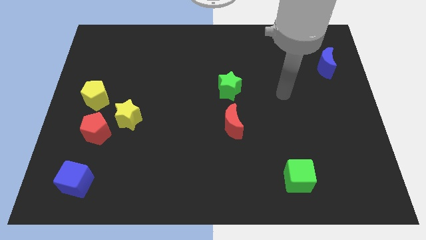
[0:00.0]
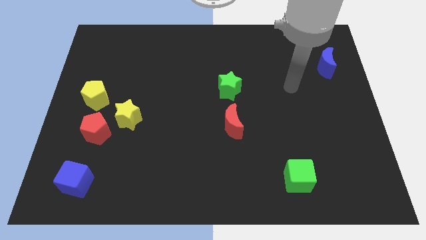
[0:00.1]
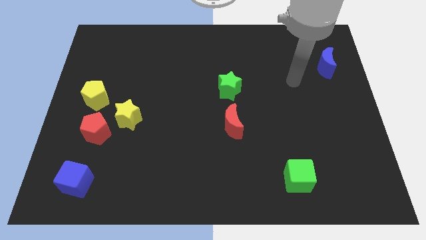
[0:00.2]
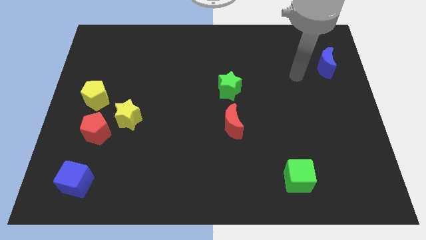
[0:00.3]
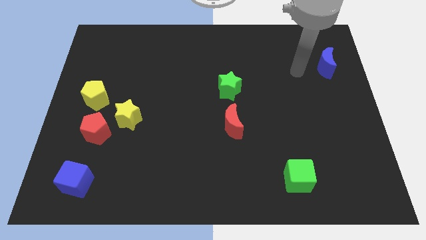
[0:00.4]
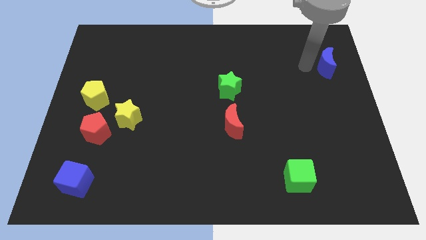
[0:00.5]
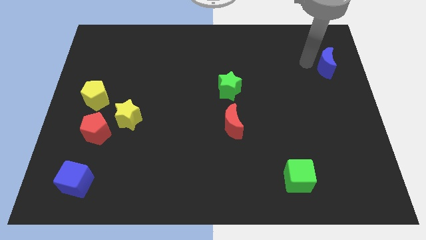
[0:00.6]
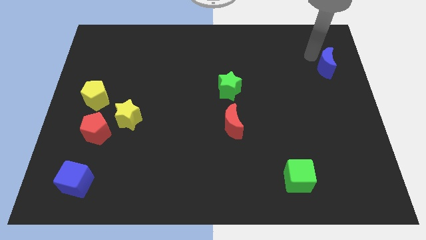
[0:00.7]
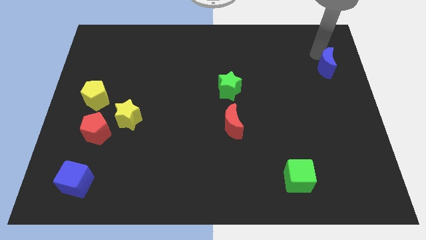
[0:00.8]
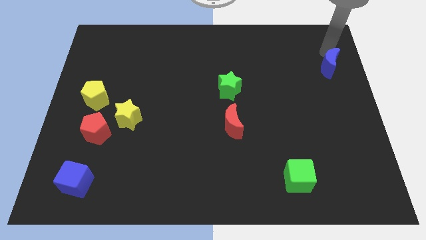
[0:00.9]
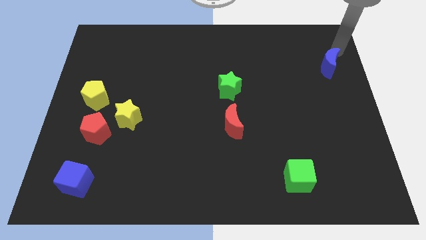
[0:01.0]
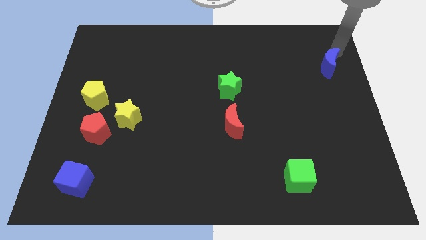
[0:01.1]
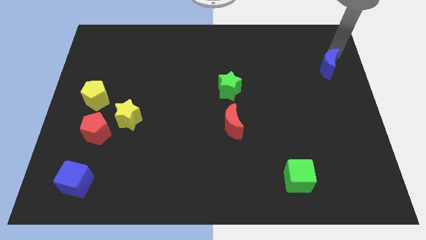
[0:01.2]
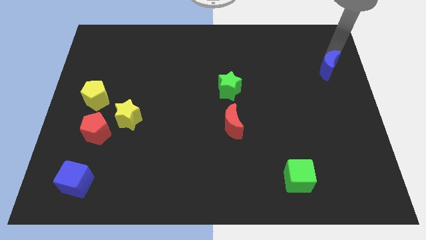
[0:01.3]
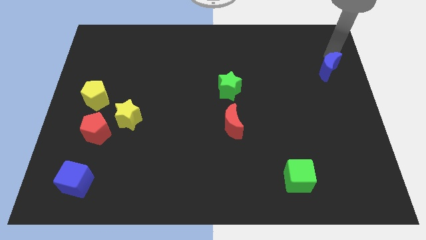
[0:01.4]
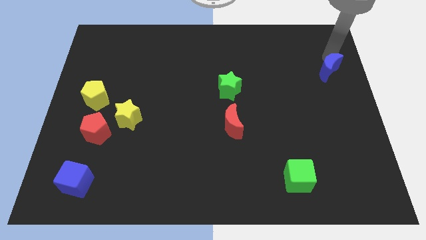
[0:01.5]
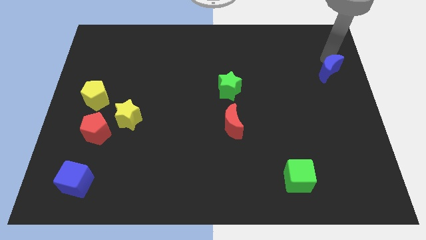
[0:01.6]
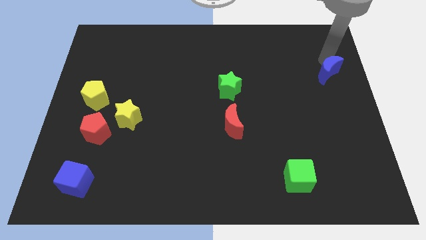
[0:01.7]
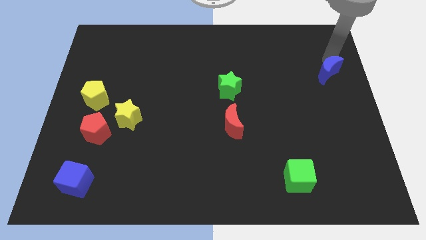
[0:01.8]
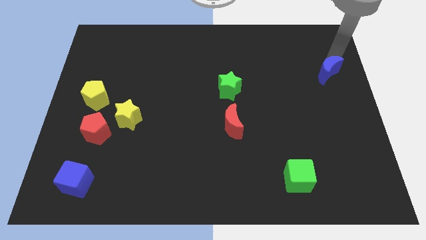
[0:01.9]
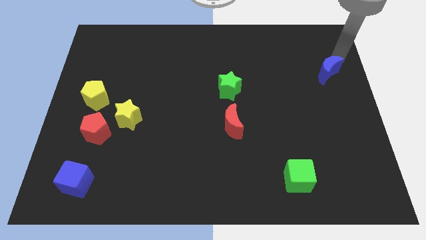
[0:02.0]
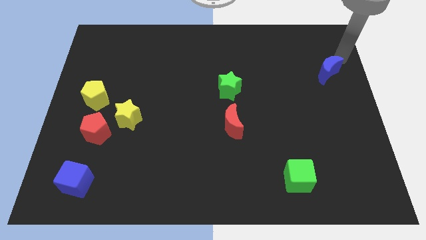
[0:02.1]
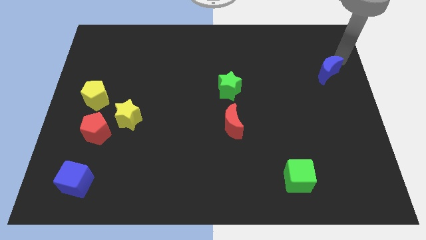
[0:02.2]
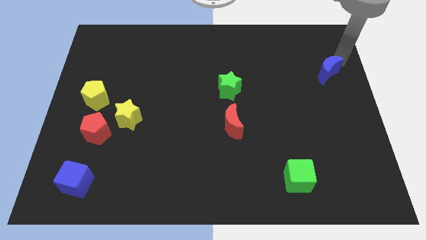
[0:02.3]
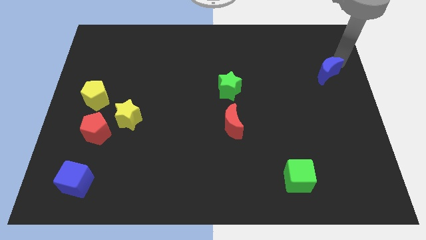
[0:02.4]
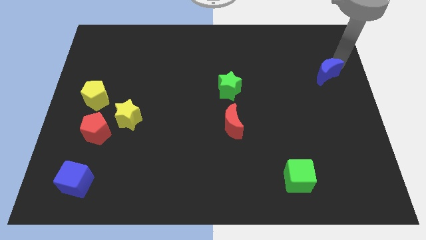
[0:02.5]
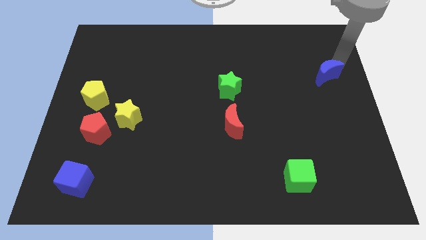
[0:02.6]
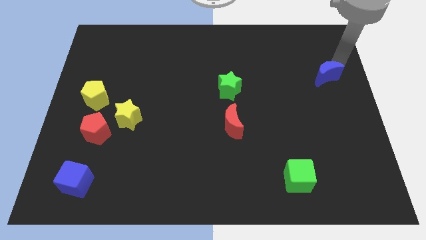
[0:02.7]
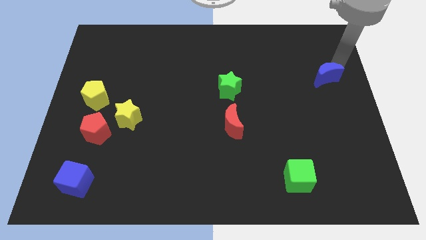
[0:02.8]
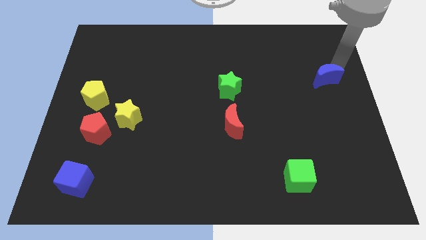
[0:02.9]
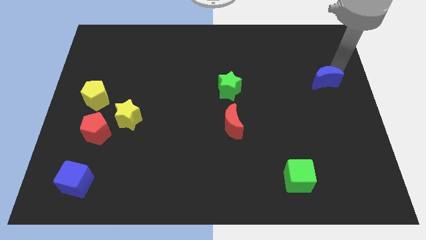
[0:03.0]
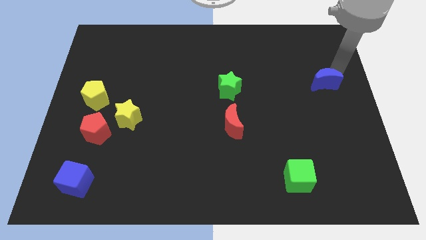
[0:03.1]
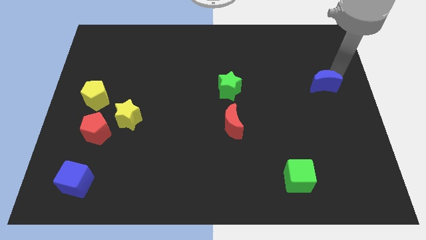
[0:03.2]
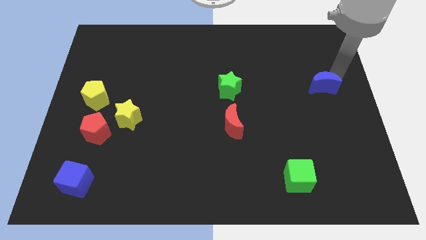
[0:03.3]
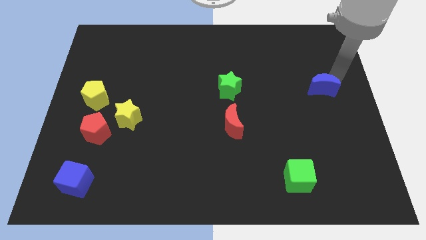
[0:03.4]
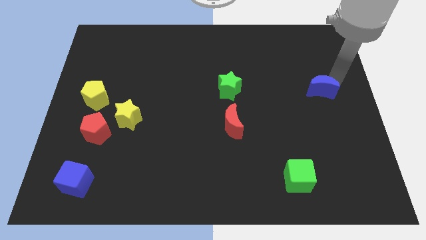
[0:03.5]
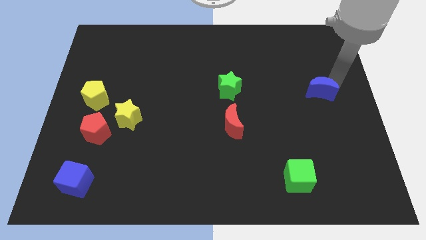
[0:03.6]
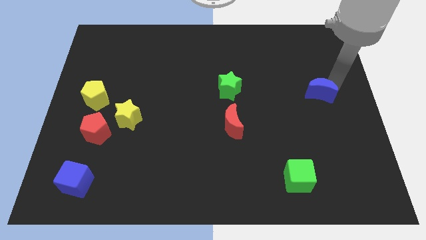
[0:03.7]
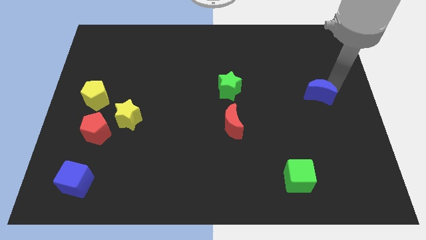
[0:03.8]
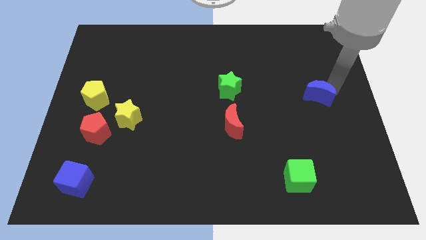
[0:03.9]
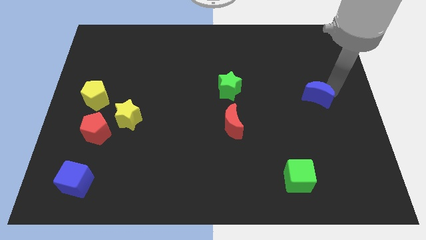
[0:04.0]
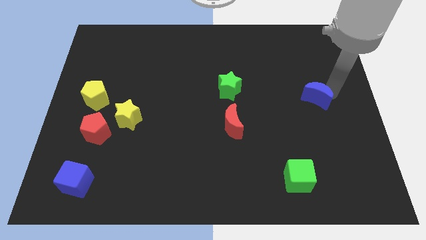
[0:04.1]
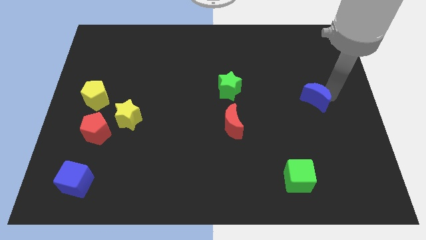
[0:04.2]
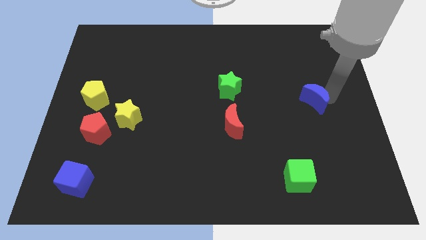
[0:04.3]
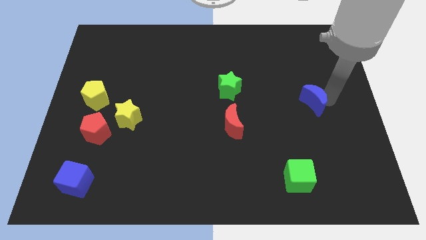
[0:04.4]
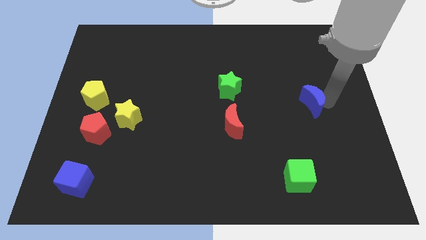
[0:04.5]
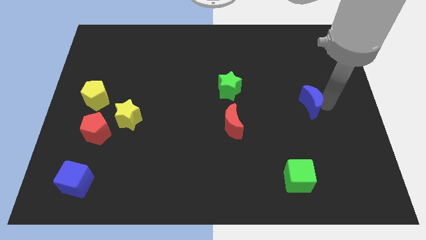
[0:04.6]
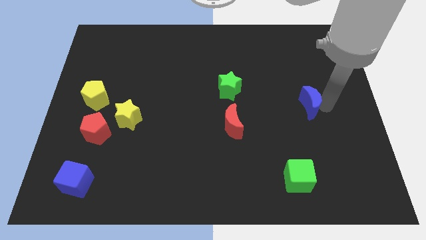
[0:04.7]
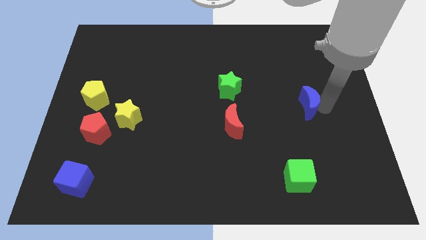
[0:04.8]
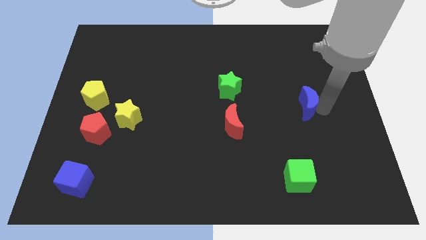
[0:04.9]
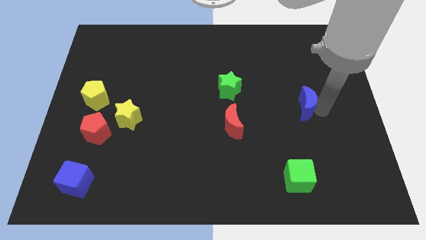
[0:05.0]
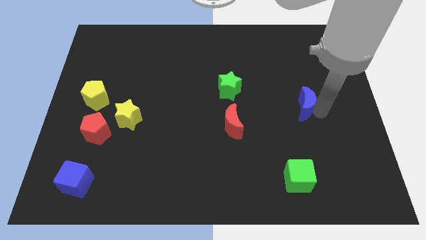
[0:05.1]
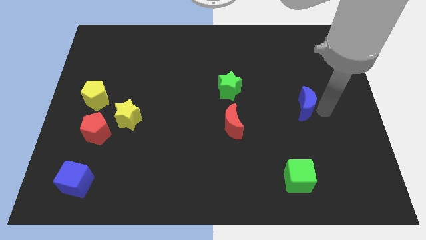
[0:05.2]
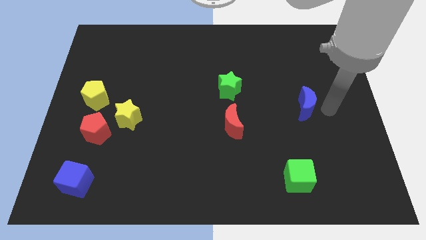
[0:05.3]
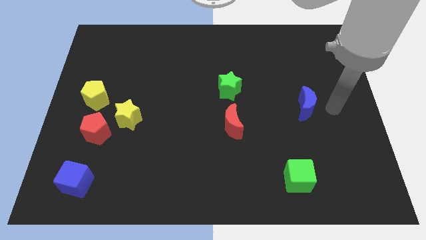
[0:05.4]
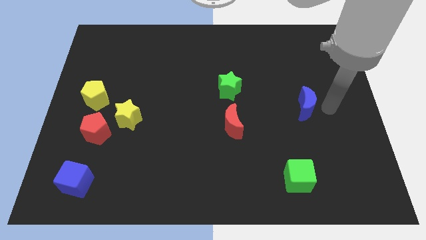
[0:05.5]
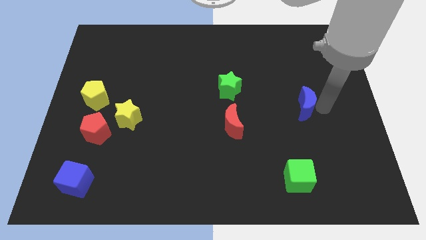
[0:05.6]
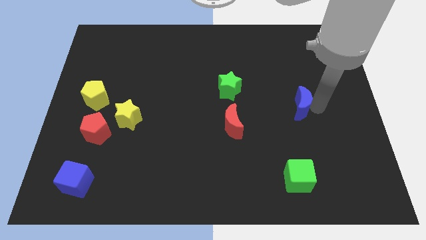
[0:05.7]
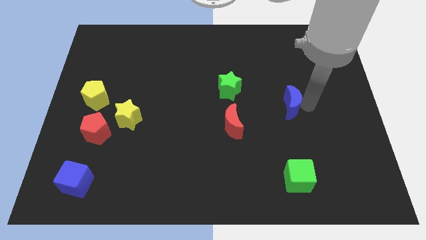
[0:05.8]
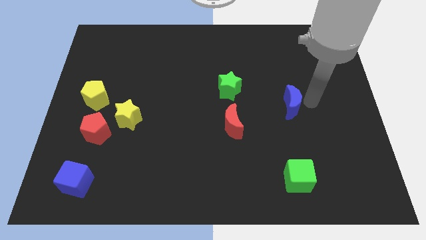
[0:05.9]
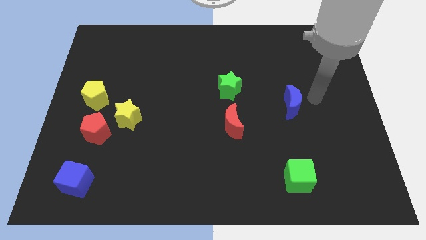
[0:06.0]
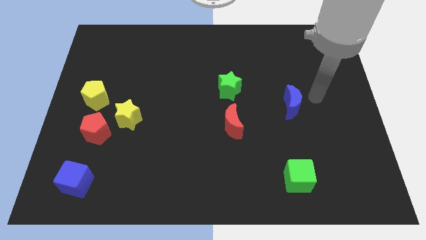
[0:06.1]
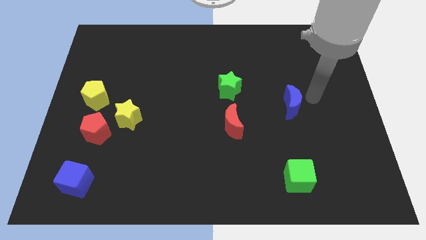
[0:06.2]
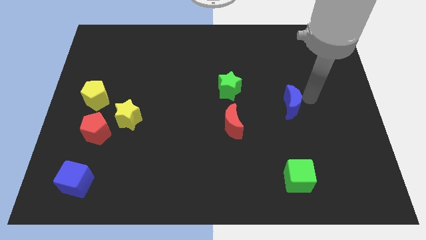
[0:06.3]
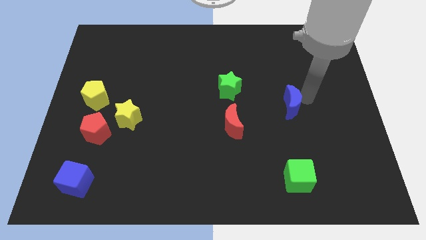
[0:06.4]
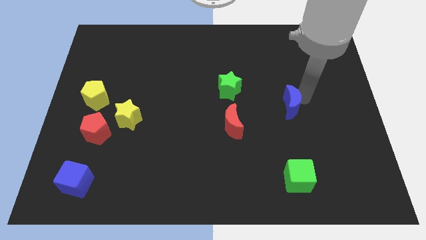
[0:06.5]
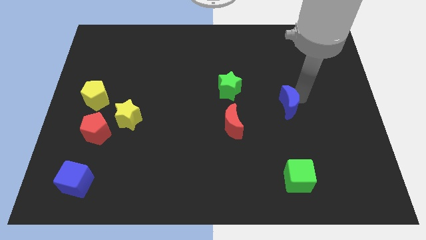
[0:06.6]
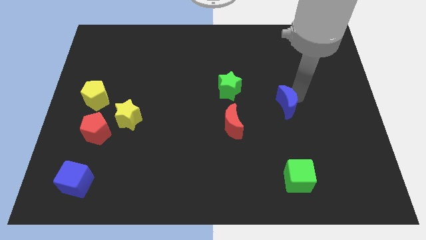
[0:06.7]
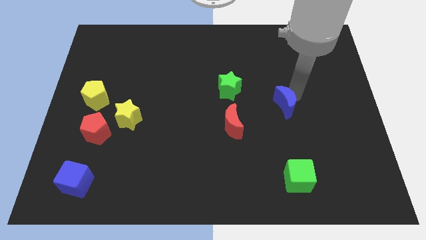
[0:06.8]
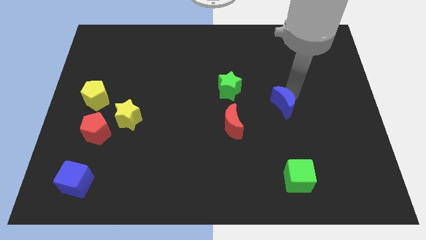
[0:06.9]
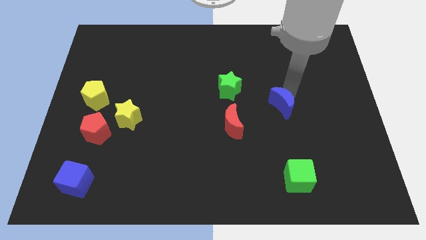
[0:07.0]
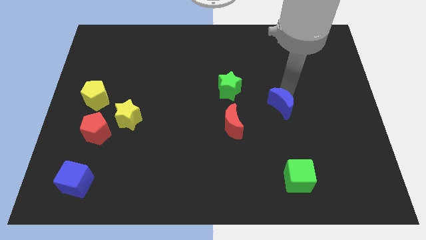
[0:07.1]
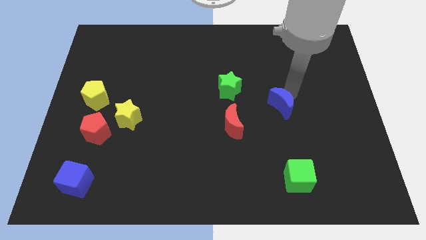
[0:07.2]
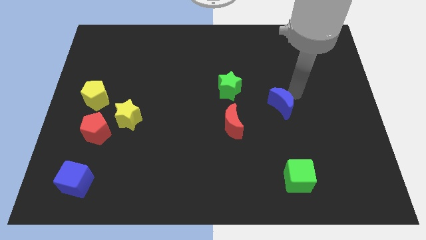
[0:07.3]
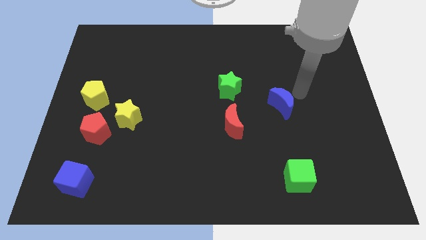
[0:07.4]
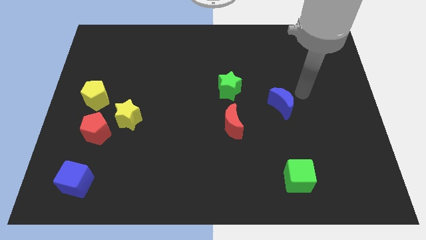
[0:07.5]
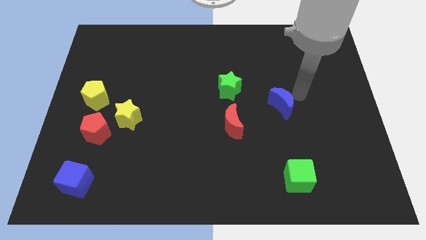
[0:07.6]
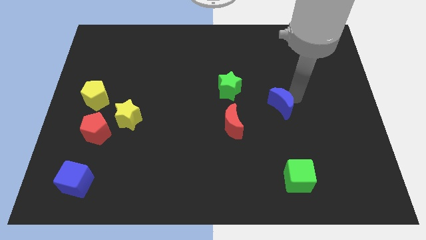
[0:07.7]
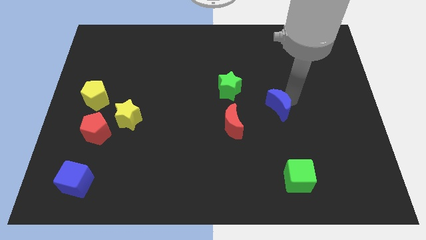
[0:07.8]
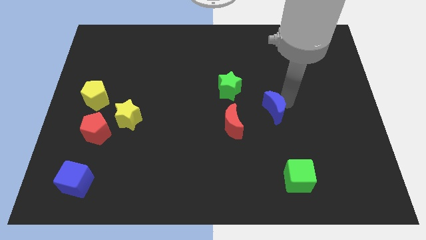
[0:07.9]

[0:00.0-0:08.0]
move the blue moon downwards and then left
